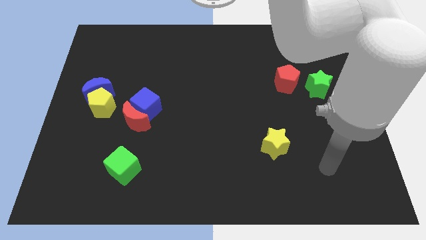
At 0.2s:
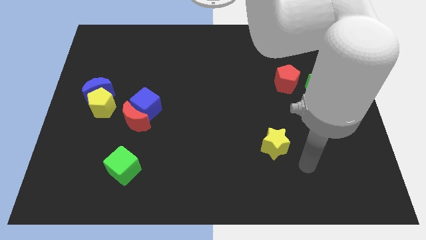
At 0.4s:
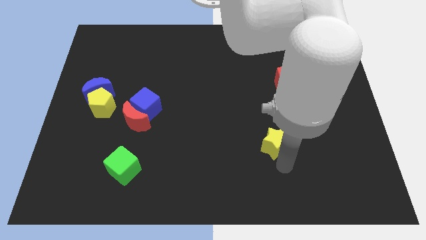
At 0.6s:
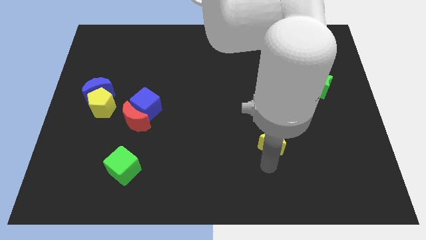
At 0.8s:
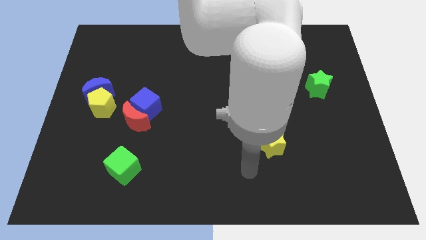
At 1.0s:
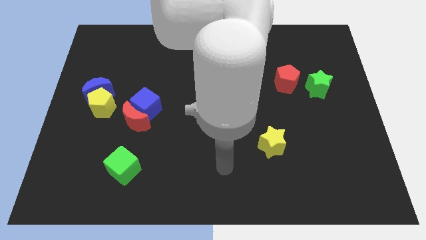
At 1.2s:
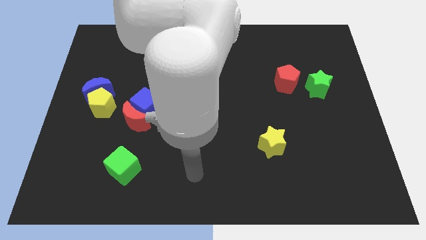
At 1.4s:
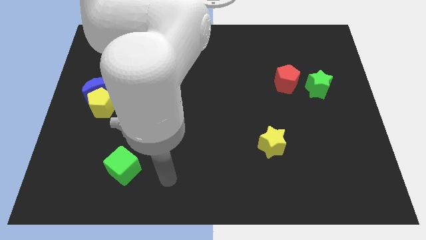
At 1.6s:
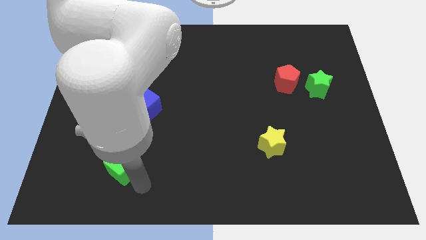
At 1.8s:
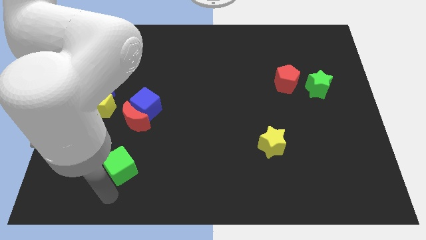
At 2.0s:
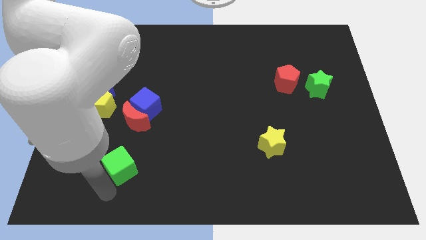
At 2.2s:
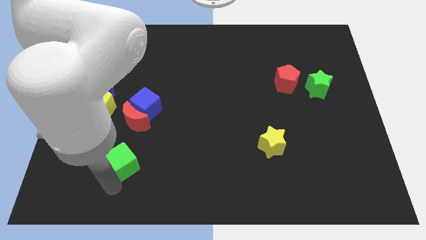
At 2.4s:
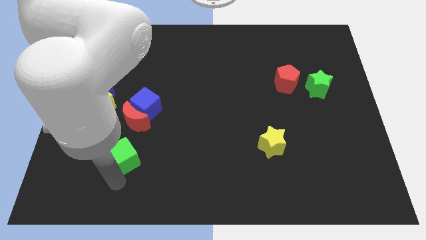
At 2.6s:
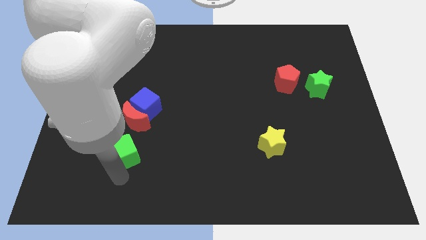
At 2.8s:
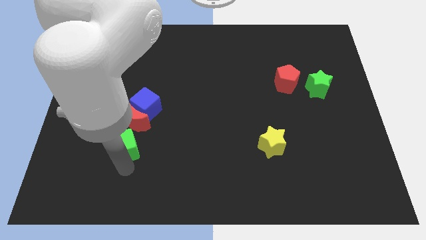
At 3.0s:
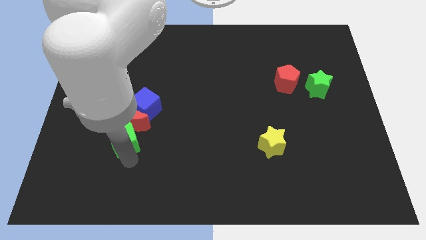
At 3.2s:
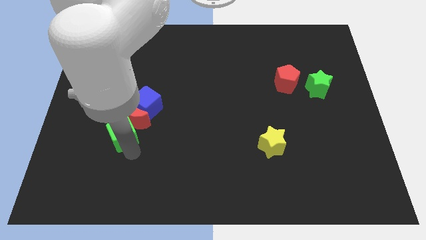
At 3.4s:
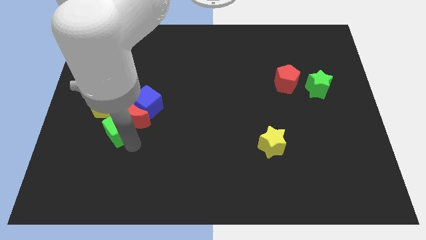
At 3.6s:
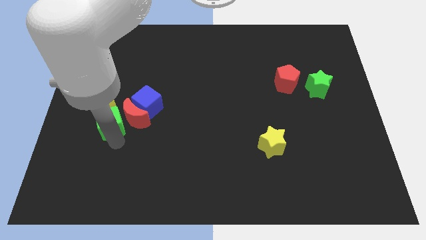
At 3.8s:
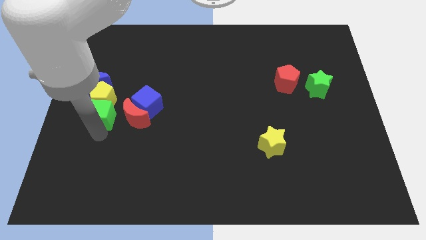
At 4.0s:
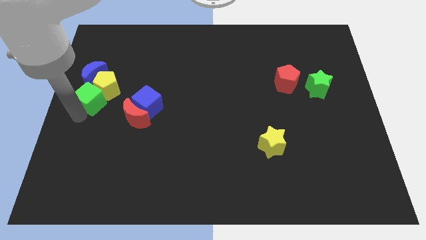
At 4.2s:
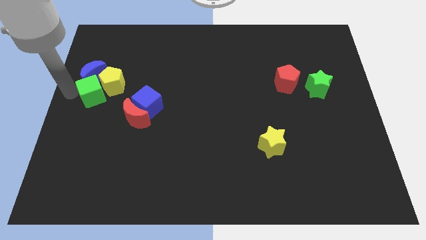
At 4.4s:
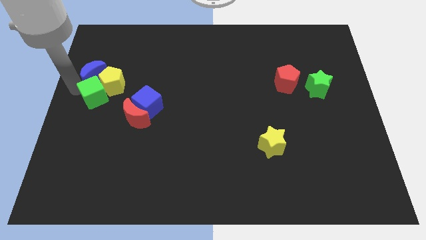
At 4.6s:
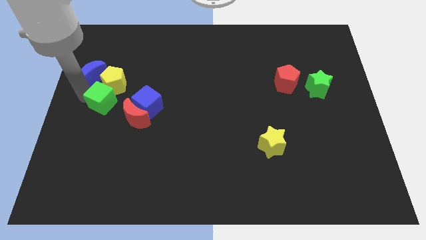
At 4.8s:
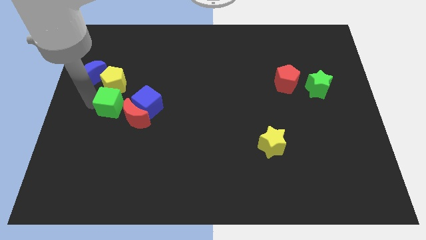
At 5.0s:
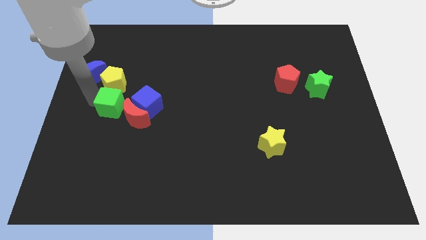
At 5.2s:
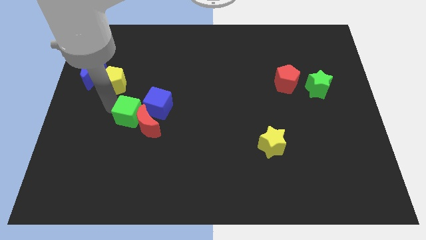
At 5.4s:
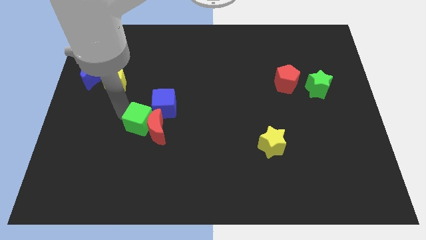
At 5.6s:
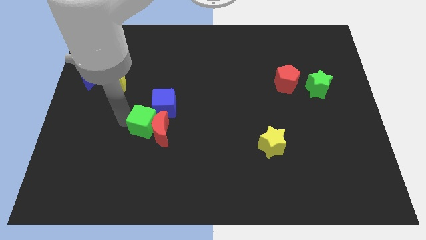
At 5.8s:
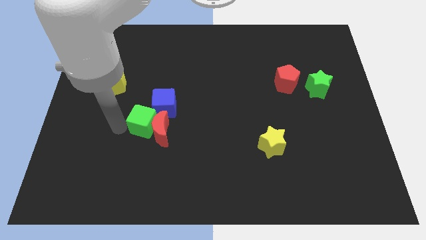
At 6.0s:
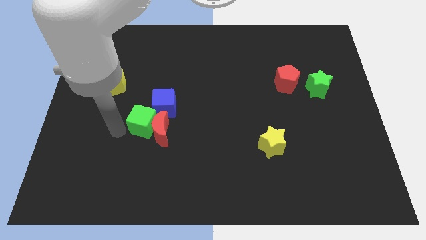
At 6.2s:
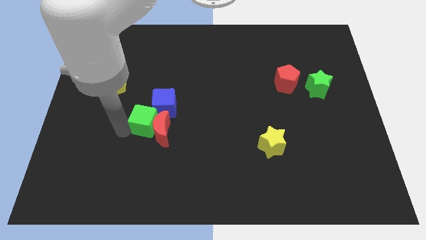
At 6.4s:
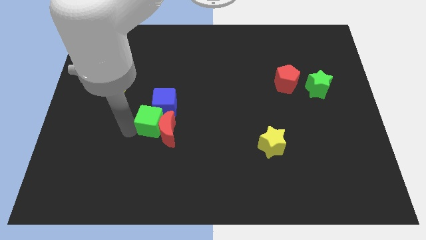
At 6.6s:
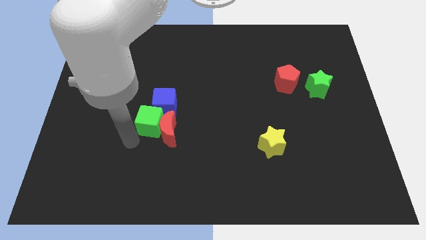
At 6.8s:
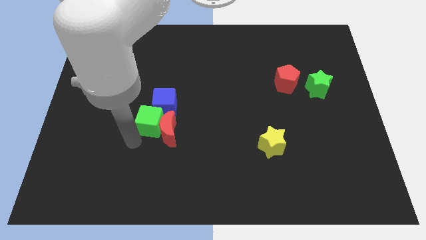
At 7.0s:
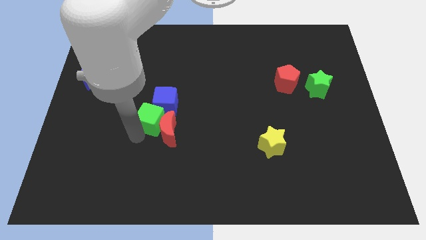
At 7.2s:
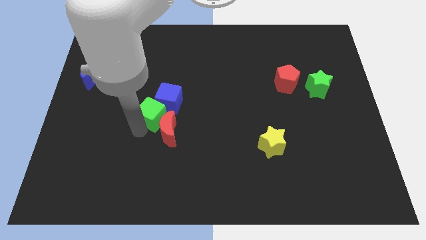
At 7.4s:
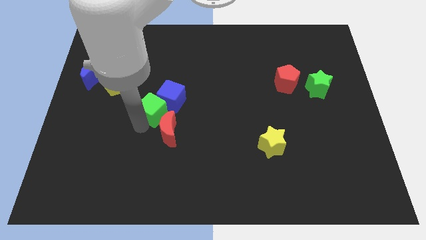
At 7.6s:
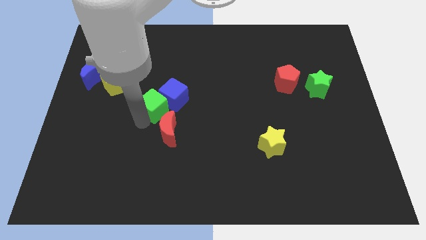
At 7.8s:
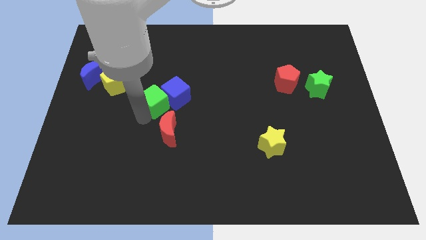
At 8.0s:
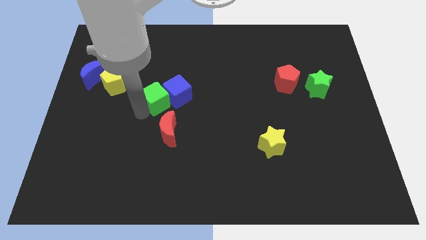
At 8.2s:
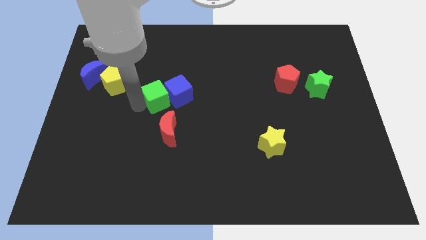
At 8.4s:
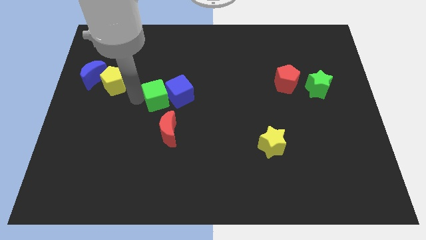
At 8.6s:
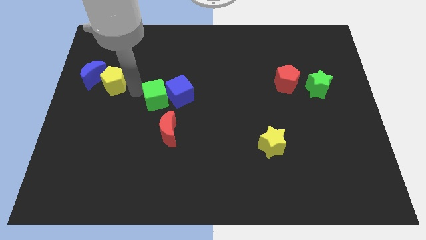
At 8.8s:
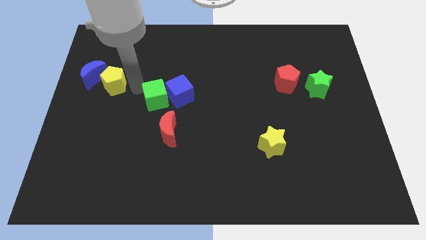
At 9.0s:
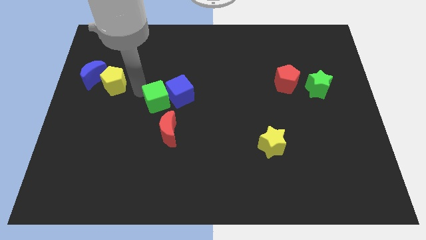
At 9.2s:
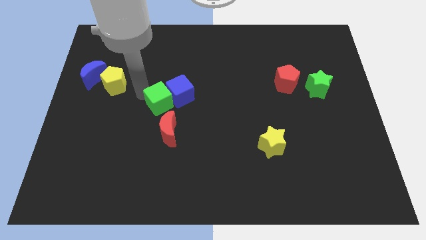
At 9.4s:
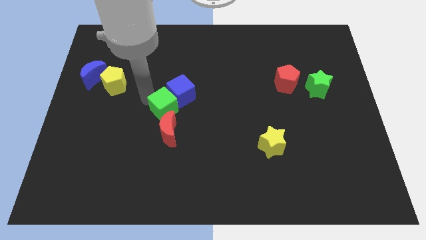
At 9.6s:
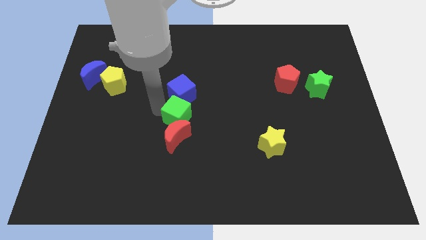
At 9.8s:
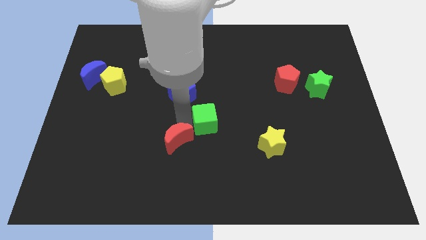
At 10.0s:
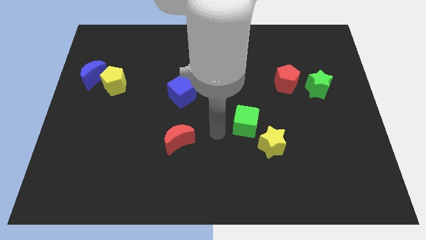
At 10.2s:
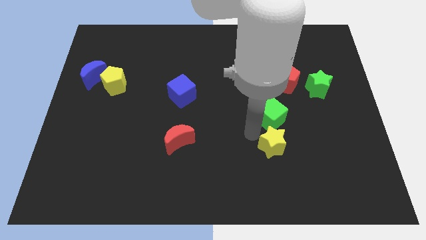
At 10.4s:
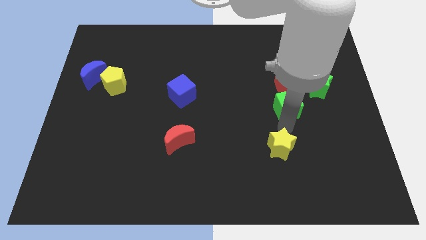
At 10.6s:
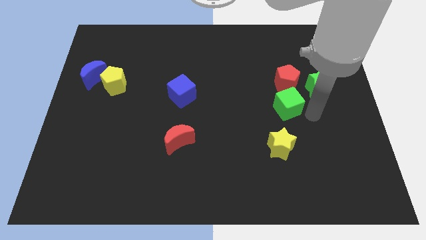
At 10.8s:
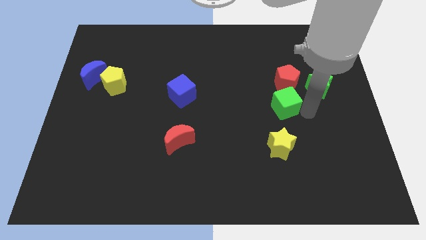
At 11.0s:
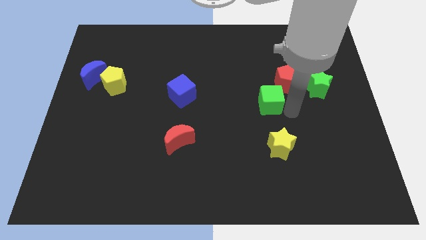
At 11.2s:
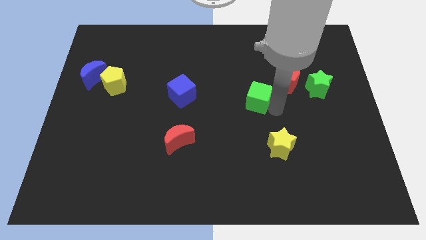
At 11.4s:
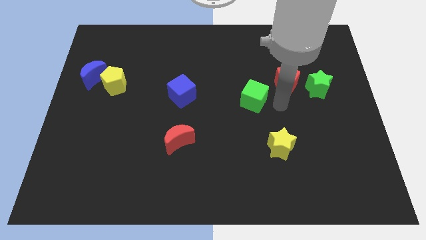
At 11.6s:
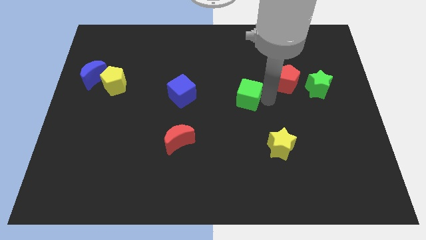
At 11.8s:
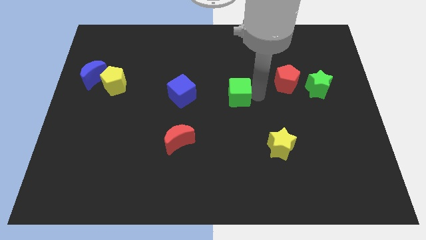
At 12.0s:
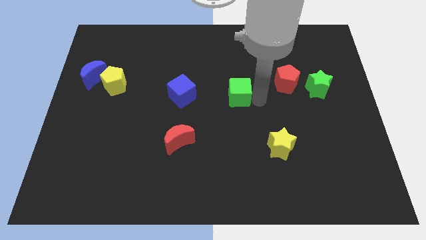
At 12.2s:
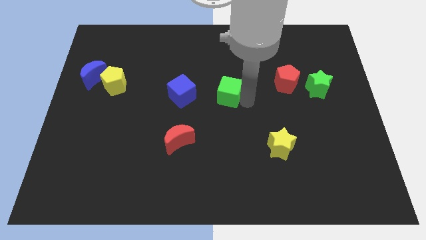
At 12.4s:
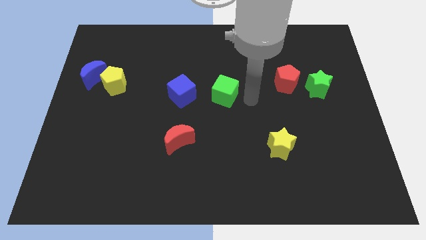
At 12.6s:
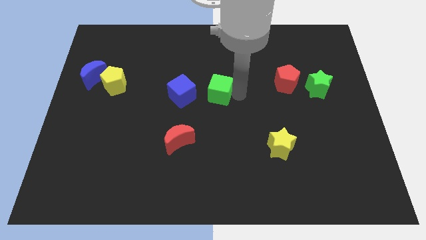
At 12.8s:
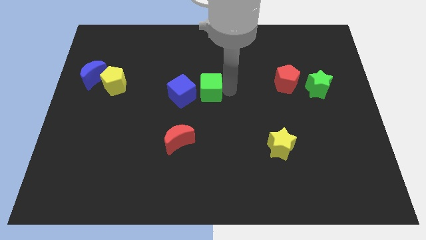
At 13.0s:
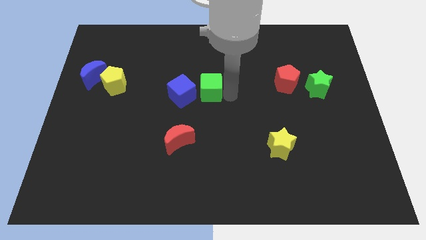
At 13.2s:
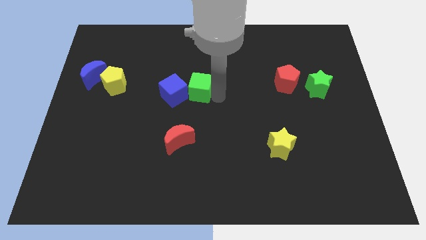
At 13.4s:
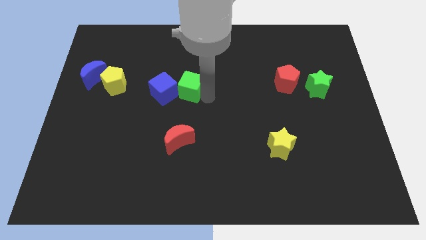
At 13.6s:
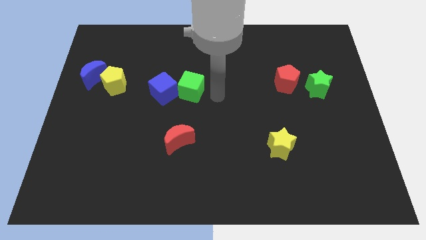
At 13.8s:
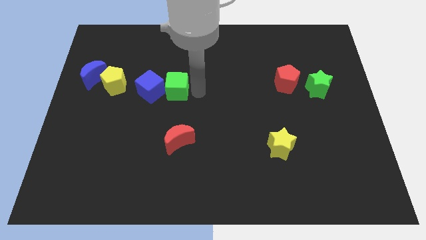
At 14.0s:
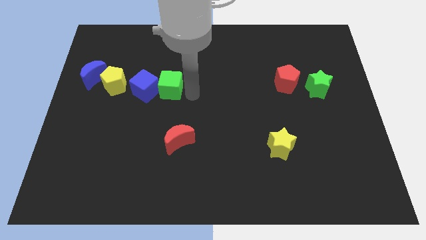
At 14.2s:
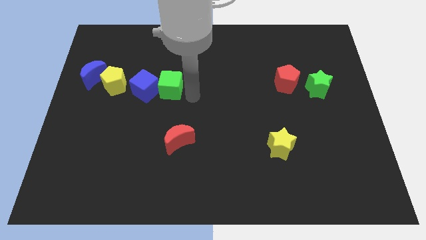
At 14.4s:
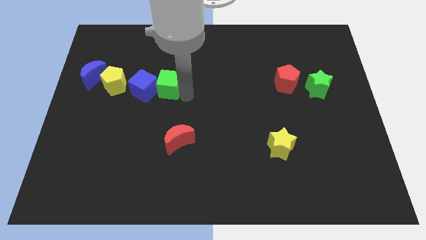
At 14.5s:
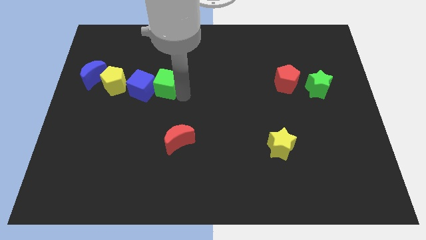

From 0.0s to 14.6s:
move the green cube up

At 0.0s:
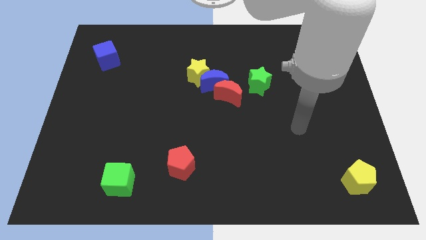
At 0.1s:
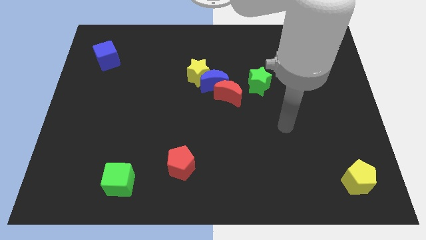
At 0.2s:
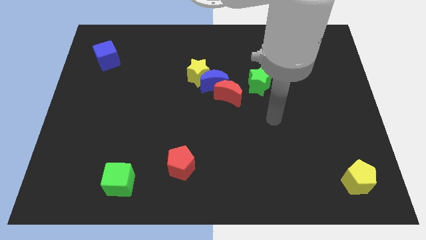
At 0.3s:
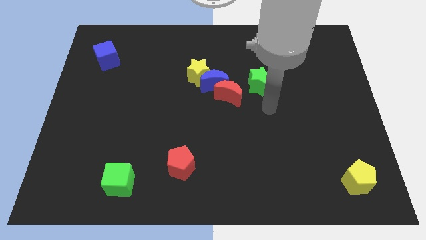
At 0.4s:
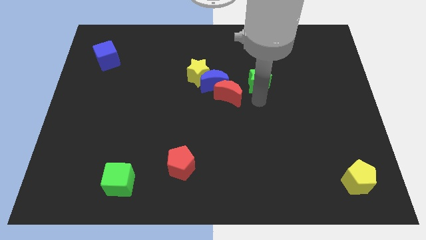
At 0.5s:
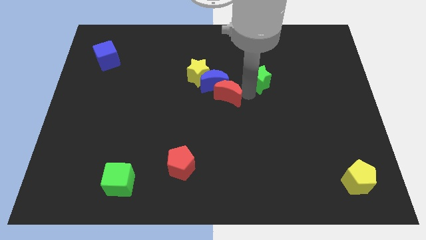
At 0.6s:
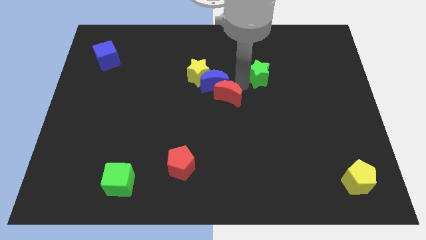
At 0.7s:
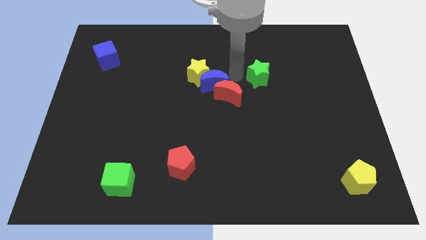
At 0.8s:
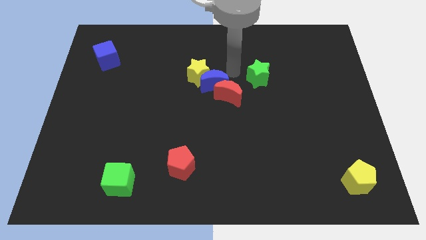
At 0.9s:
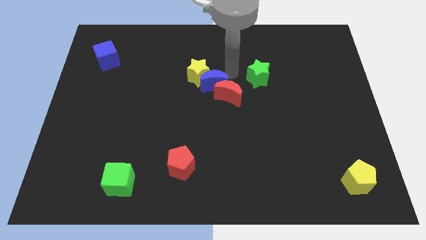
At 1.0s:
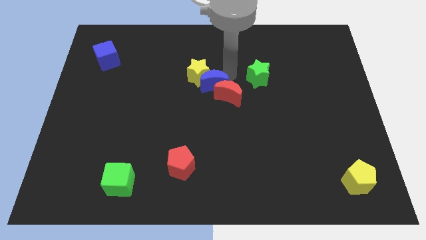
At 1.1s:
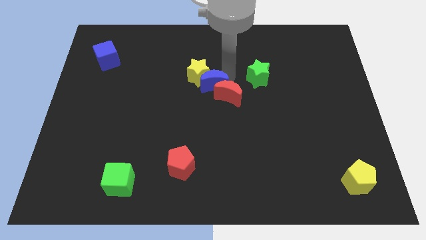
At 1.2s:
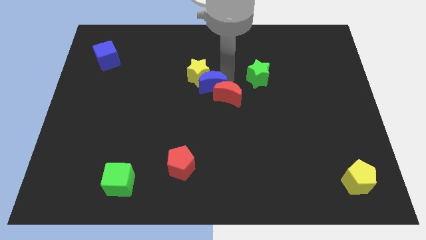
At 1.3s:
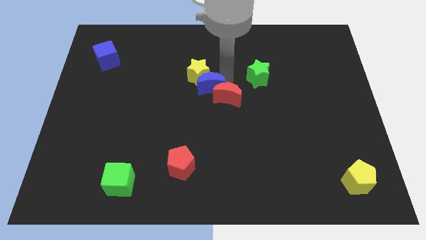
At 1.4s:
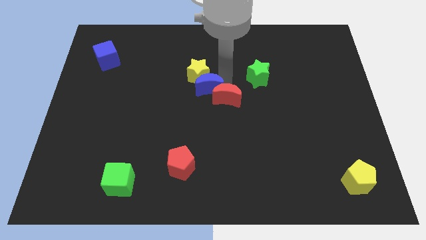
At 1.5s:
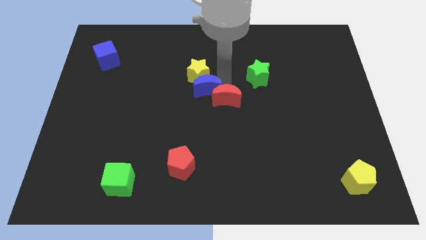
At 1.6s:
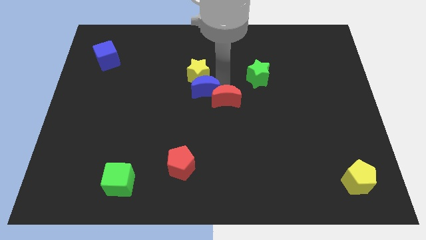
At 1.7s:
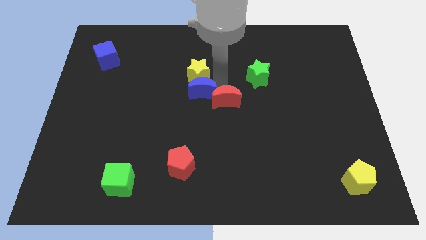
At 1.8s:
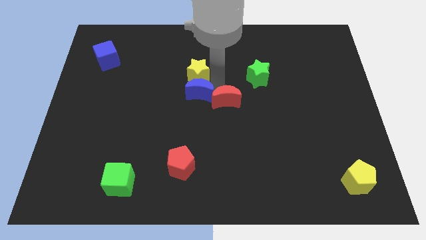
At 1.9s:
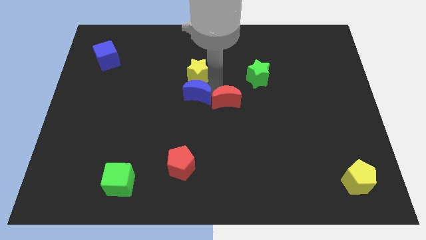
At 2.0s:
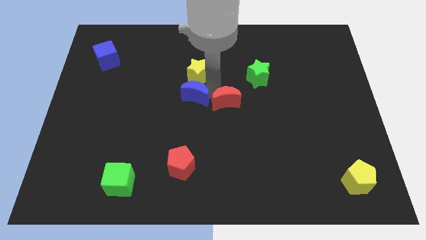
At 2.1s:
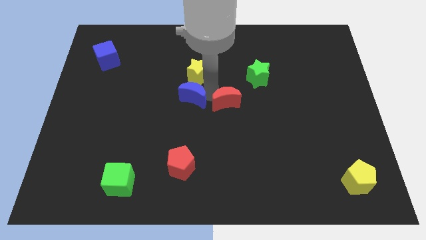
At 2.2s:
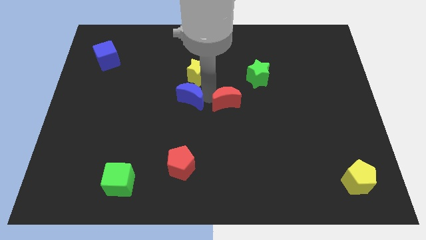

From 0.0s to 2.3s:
slightly move the blue moon diagonally down and to the left
